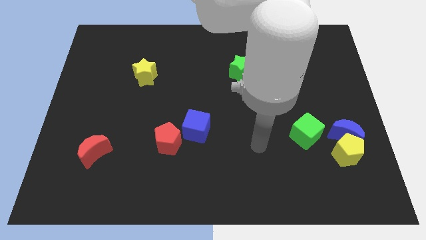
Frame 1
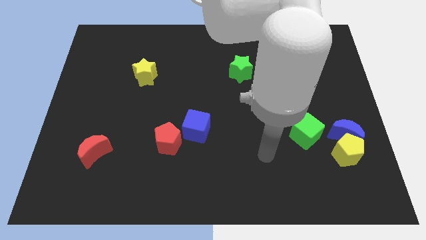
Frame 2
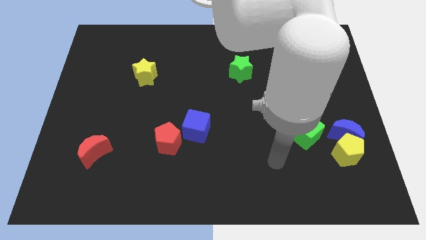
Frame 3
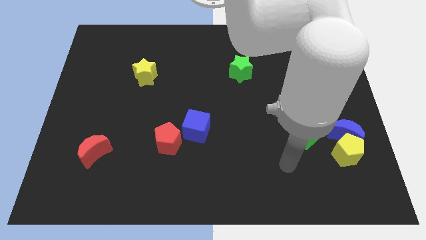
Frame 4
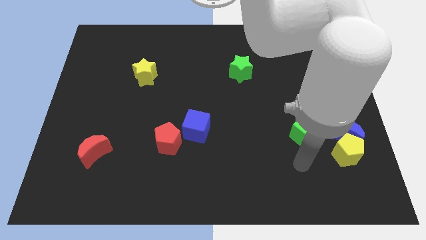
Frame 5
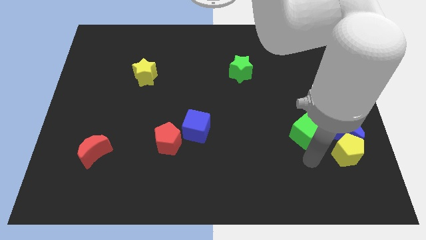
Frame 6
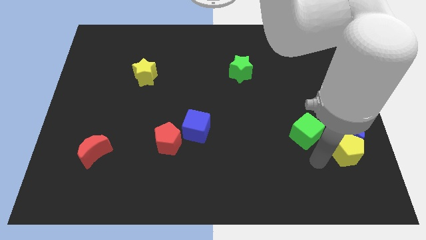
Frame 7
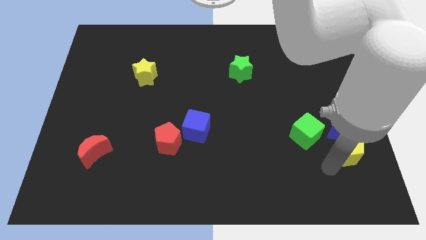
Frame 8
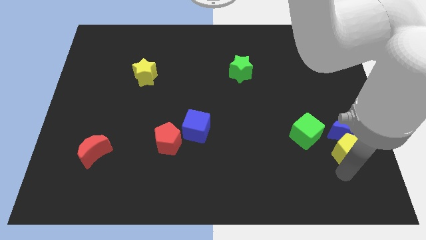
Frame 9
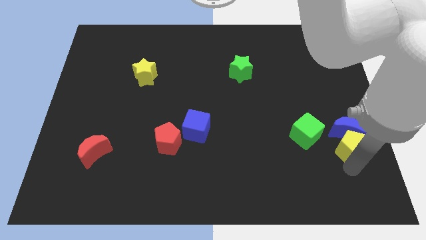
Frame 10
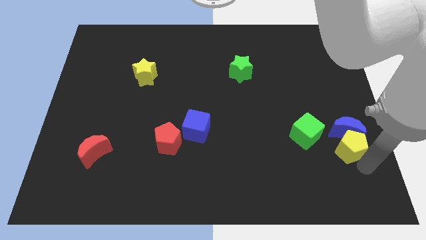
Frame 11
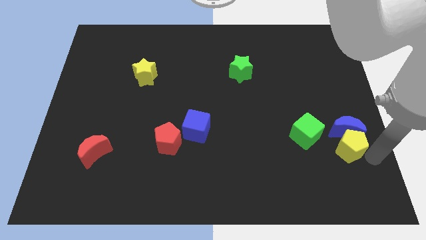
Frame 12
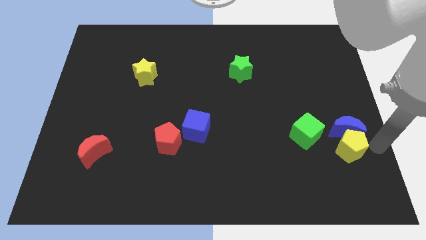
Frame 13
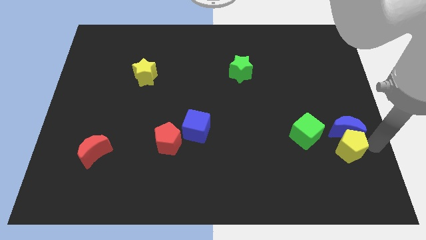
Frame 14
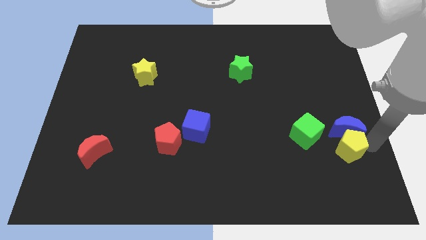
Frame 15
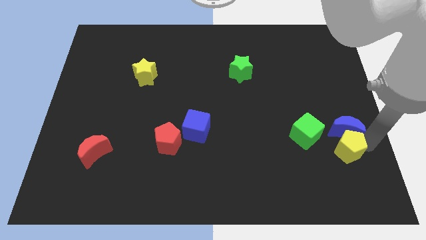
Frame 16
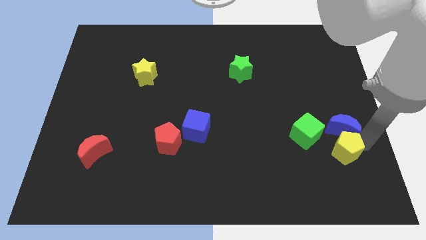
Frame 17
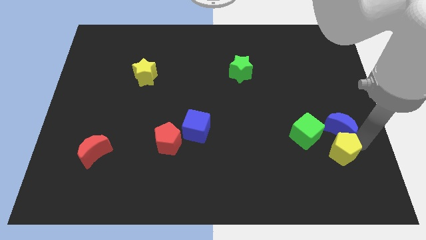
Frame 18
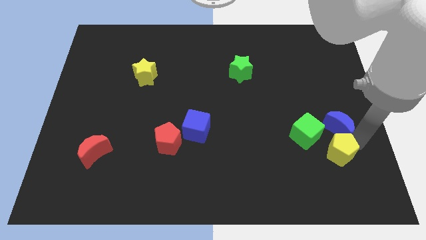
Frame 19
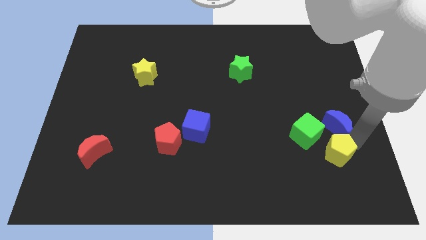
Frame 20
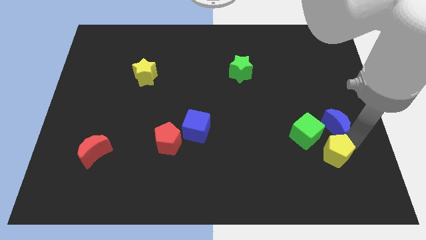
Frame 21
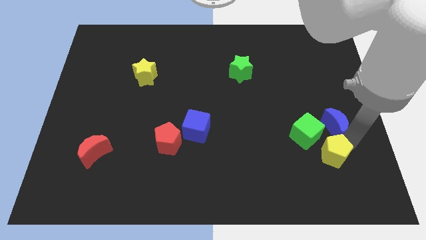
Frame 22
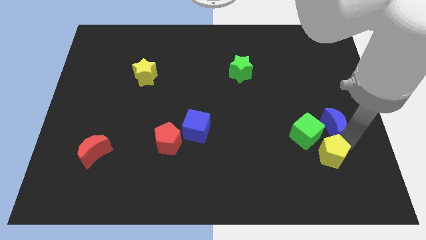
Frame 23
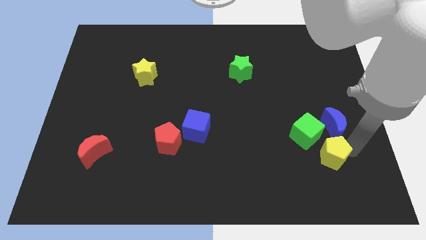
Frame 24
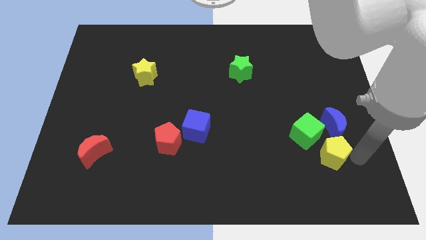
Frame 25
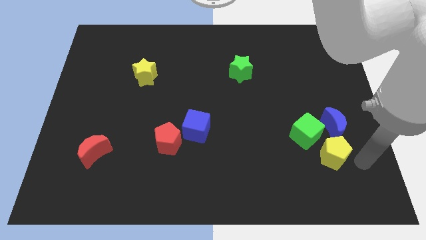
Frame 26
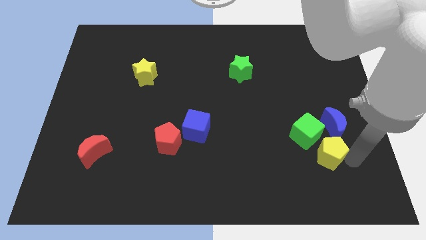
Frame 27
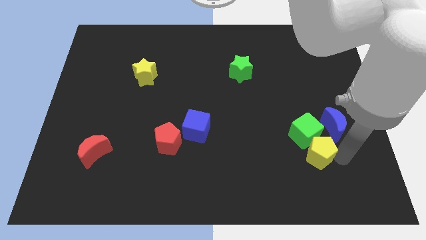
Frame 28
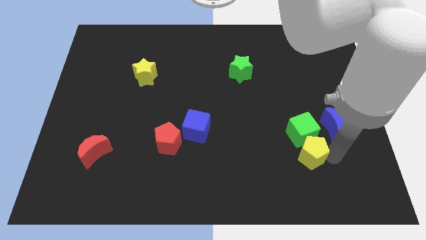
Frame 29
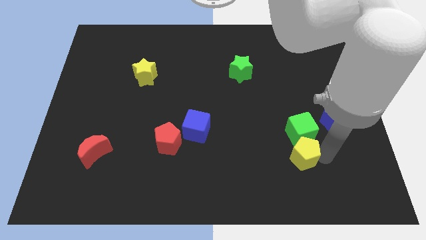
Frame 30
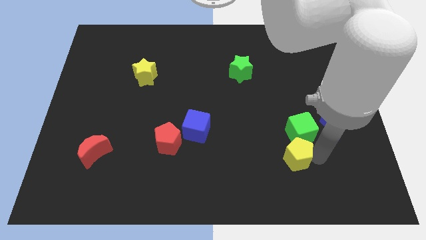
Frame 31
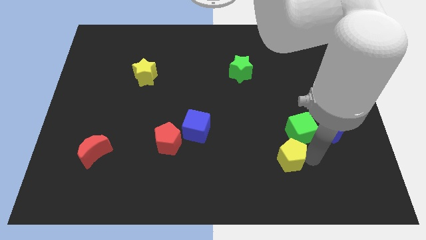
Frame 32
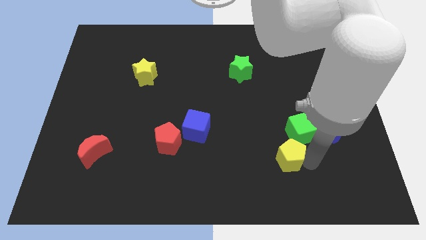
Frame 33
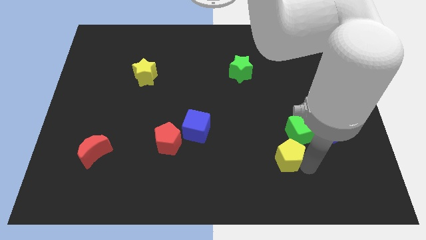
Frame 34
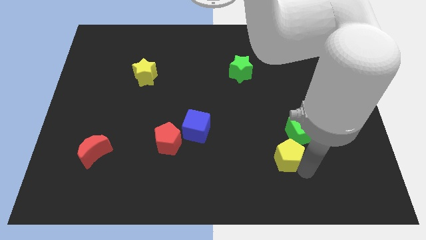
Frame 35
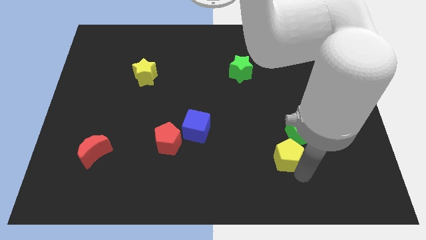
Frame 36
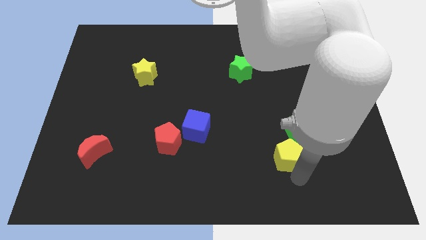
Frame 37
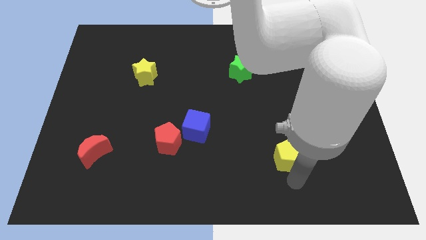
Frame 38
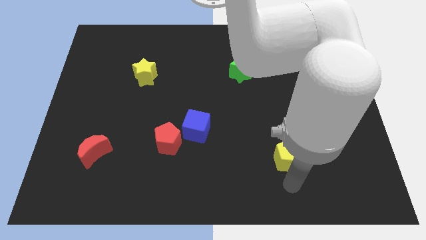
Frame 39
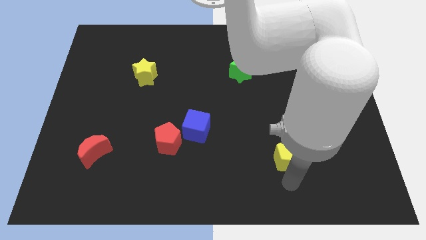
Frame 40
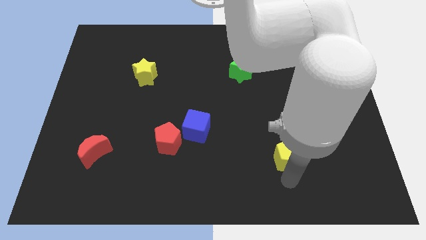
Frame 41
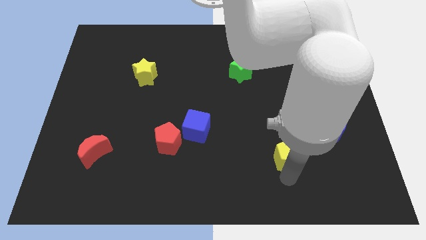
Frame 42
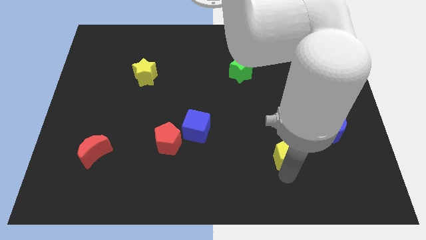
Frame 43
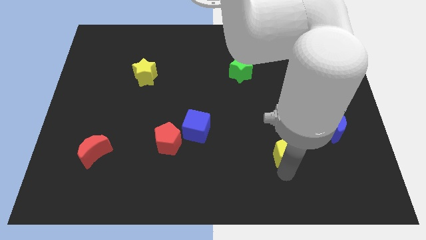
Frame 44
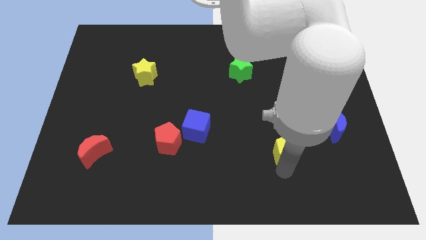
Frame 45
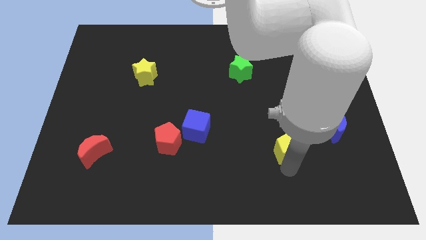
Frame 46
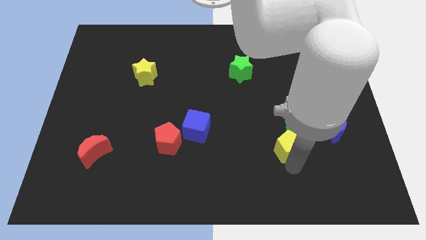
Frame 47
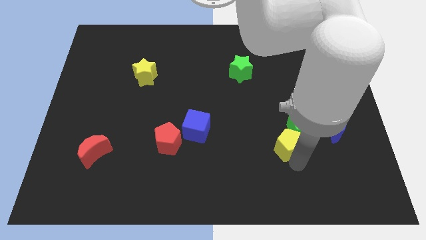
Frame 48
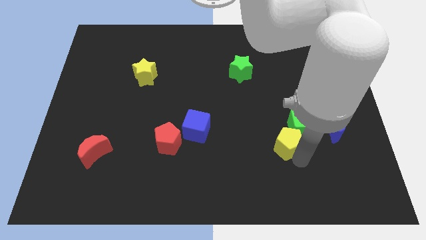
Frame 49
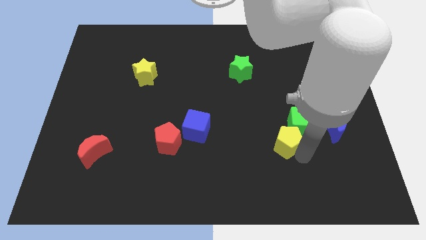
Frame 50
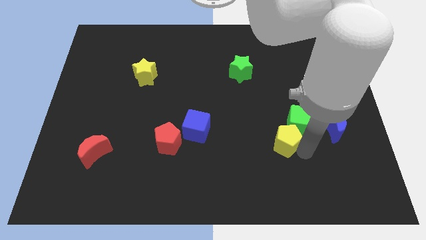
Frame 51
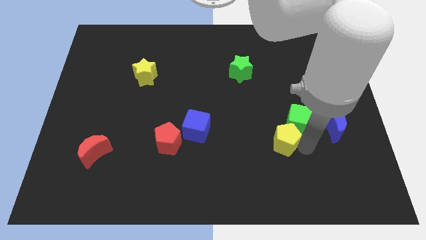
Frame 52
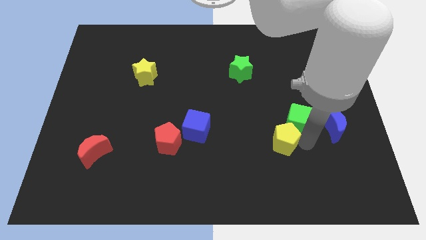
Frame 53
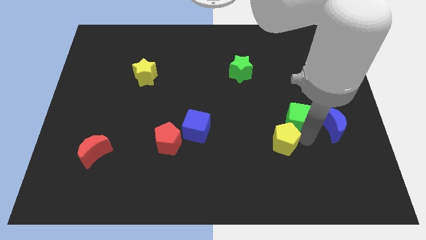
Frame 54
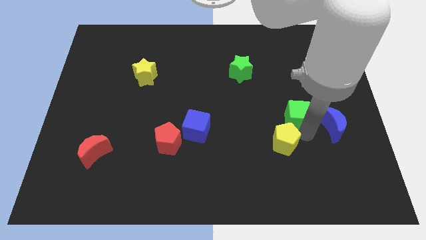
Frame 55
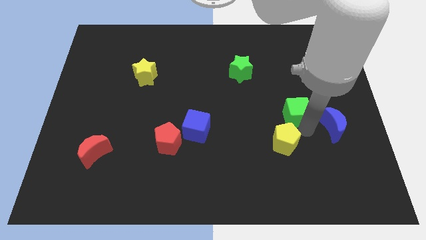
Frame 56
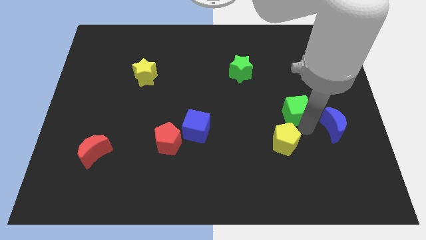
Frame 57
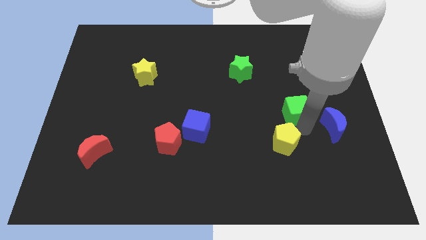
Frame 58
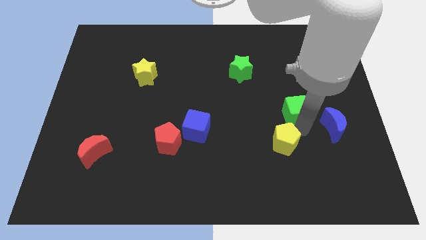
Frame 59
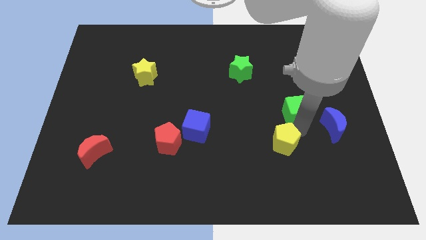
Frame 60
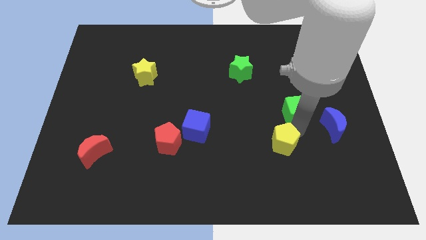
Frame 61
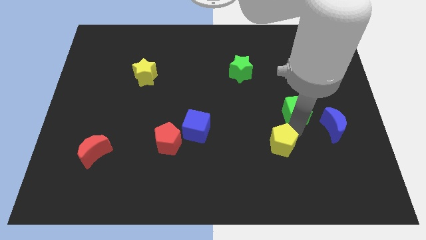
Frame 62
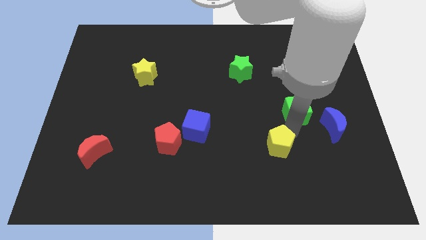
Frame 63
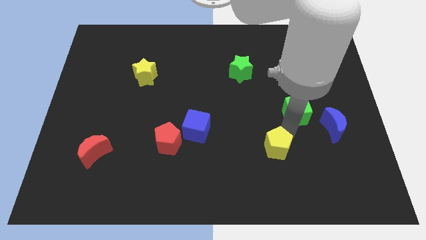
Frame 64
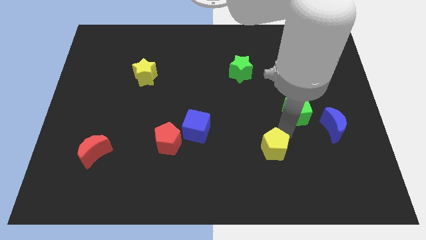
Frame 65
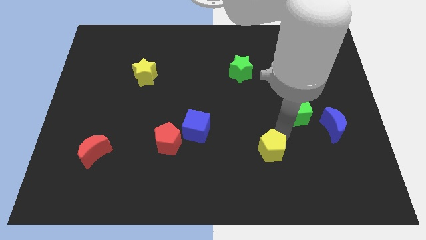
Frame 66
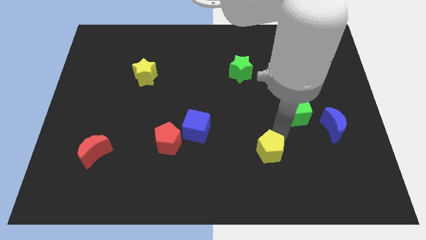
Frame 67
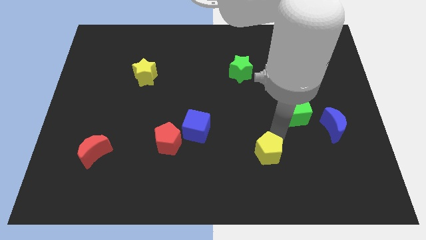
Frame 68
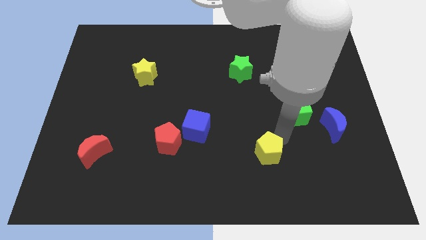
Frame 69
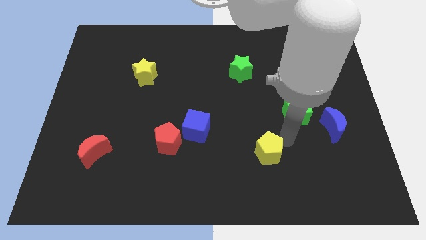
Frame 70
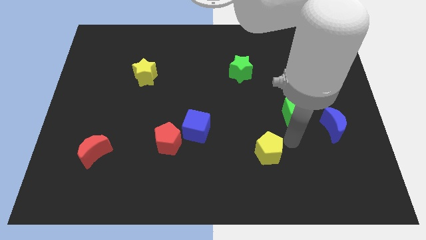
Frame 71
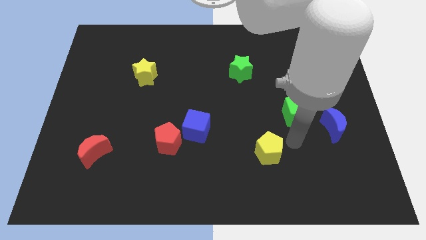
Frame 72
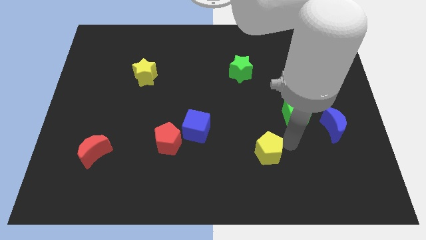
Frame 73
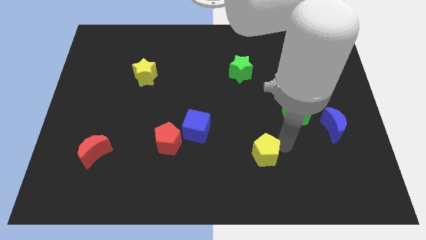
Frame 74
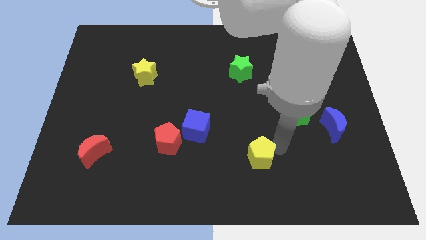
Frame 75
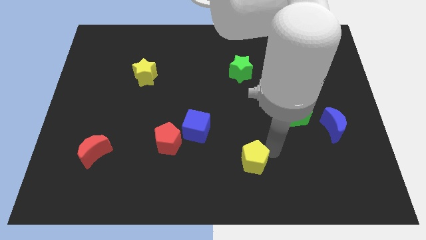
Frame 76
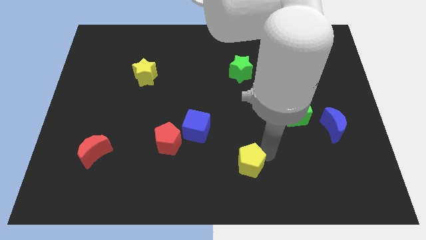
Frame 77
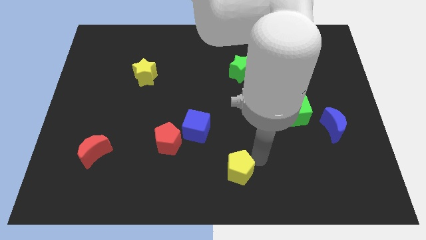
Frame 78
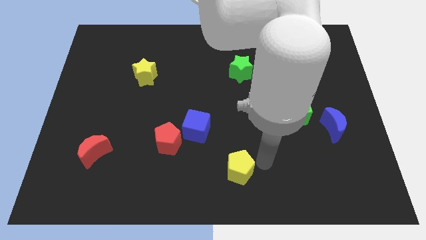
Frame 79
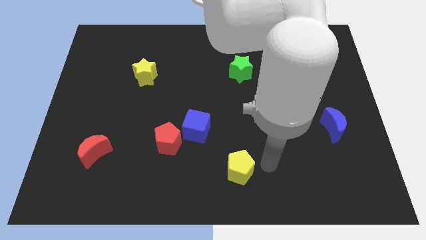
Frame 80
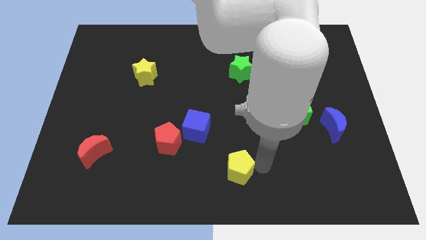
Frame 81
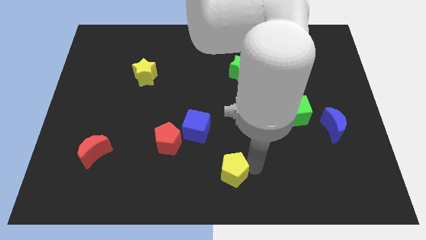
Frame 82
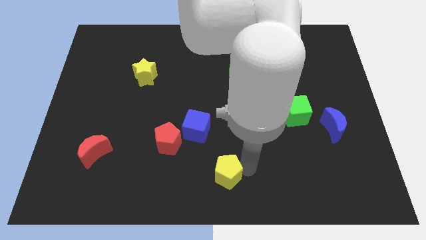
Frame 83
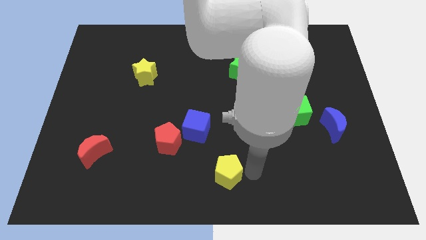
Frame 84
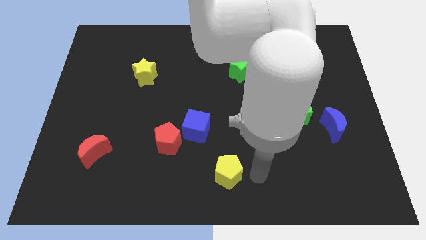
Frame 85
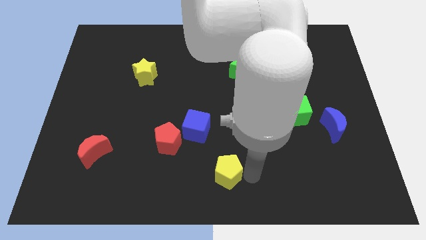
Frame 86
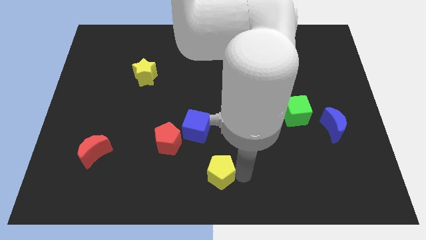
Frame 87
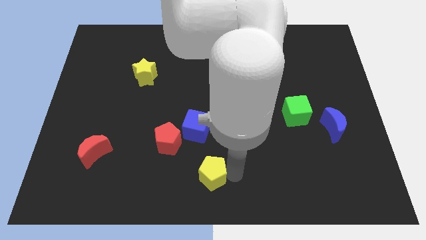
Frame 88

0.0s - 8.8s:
move the yellow pentagon below the blue cube
